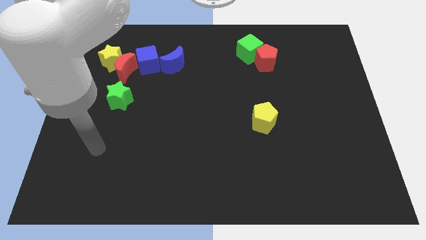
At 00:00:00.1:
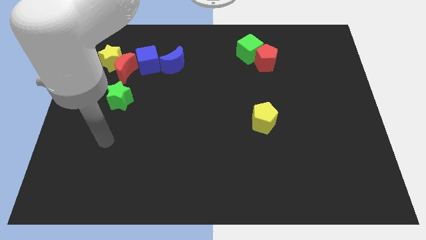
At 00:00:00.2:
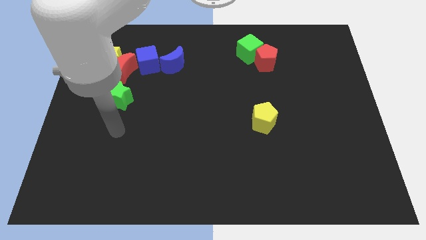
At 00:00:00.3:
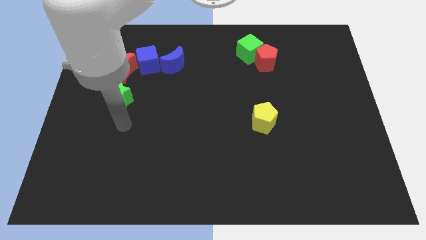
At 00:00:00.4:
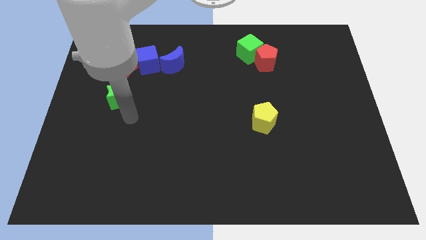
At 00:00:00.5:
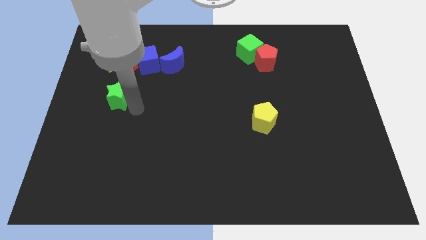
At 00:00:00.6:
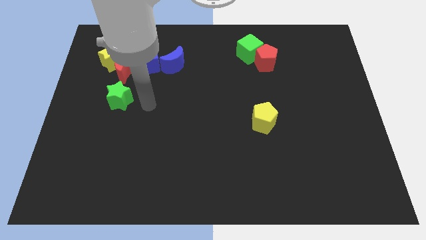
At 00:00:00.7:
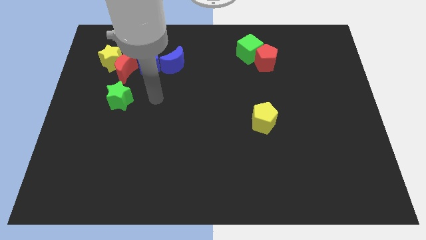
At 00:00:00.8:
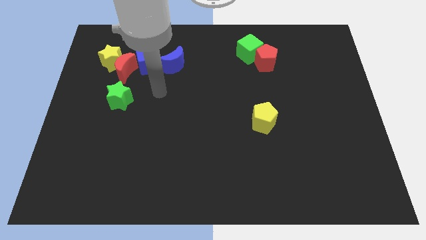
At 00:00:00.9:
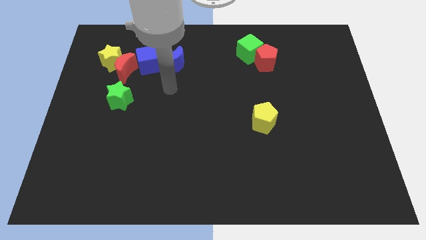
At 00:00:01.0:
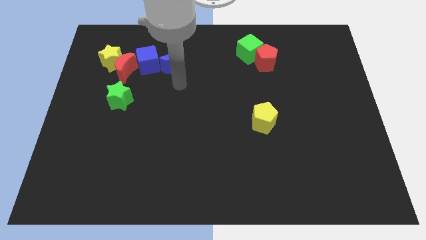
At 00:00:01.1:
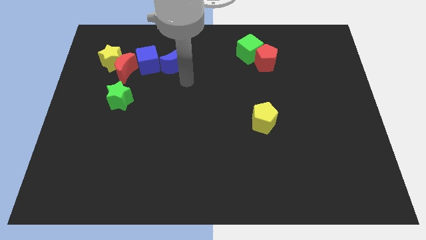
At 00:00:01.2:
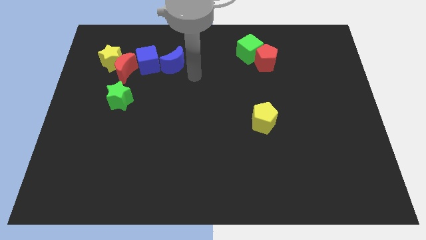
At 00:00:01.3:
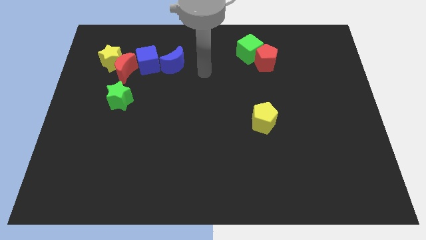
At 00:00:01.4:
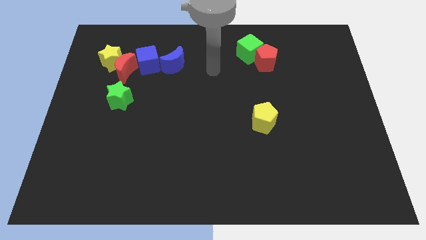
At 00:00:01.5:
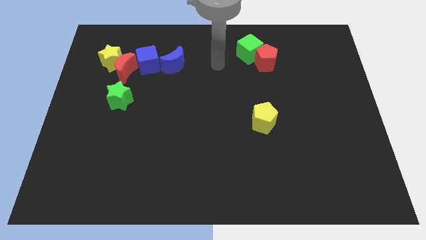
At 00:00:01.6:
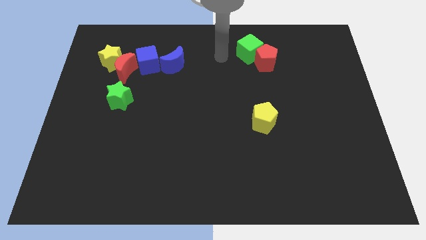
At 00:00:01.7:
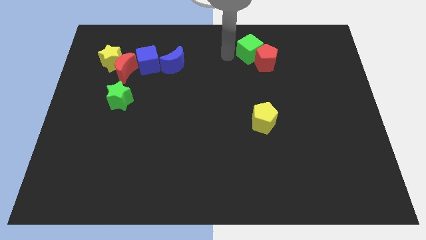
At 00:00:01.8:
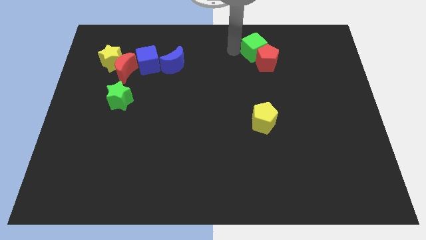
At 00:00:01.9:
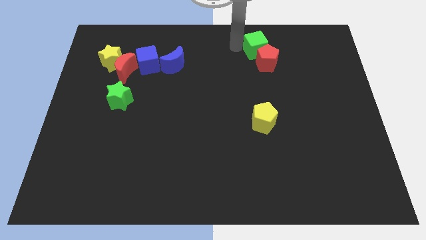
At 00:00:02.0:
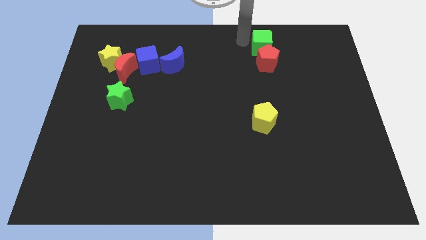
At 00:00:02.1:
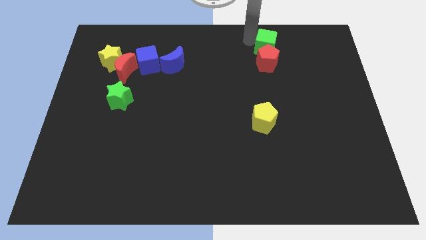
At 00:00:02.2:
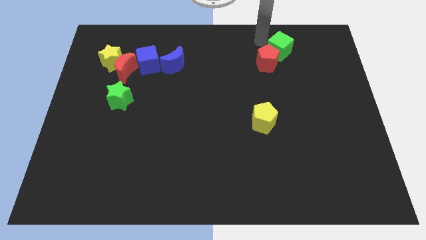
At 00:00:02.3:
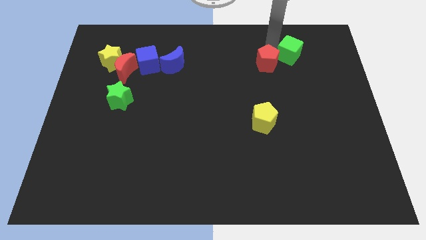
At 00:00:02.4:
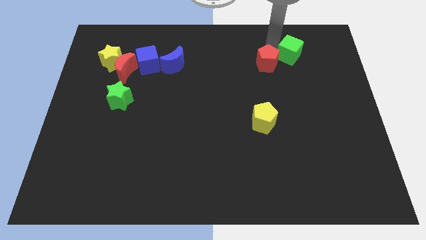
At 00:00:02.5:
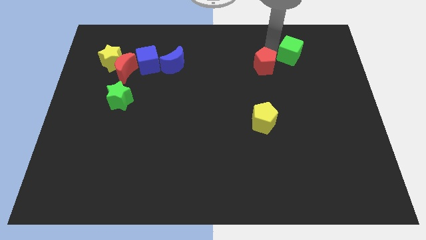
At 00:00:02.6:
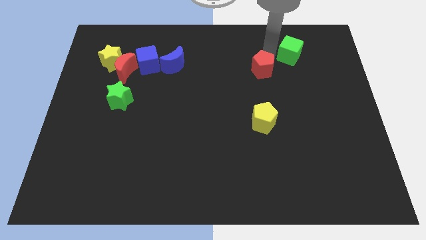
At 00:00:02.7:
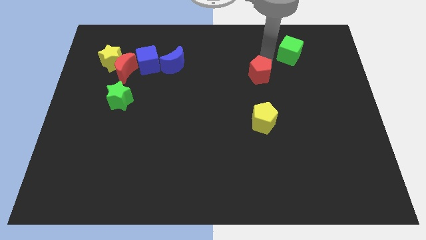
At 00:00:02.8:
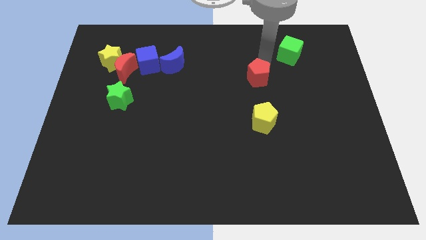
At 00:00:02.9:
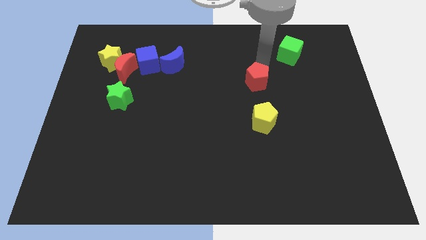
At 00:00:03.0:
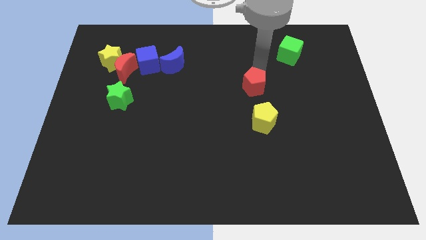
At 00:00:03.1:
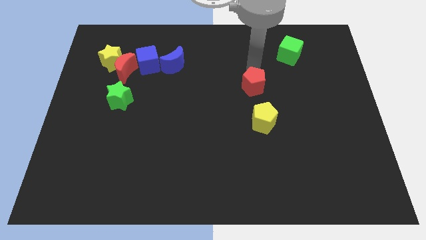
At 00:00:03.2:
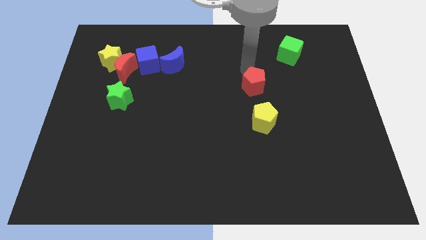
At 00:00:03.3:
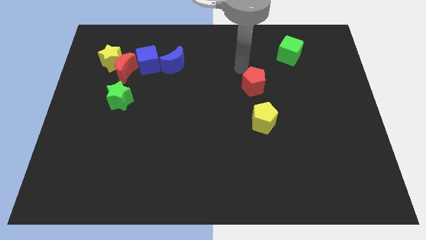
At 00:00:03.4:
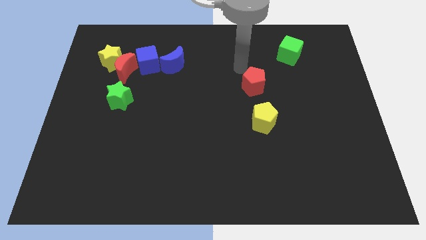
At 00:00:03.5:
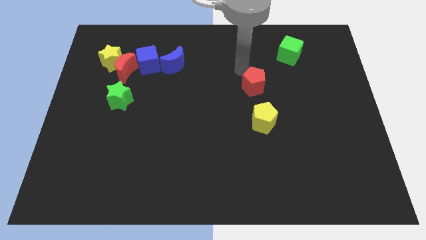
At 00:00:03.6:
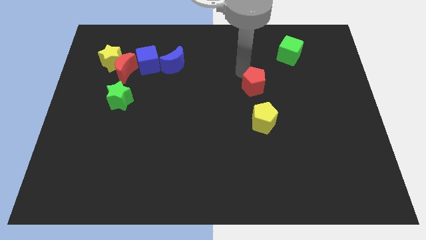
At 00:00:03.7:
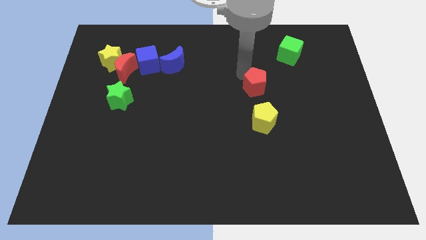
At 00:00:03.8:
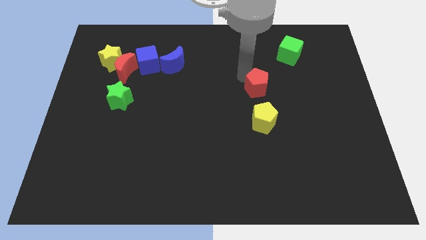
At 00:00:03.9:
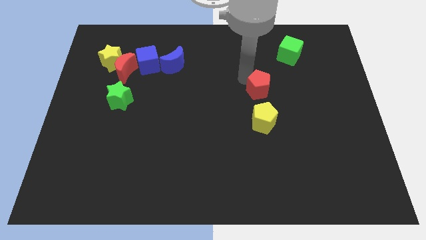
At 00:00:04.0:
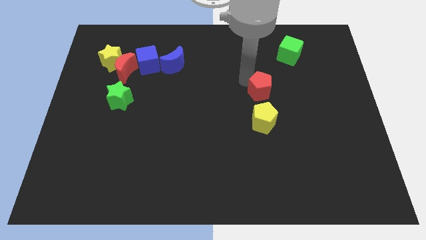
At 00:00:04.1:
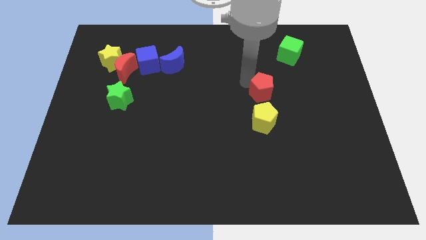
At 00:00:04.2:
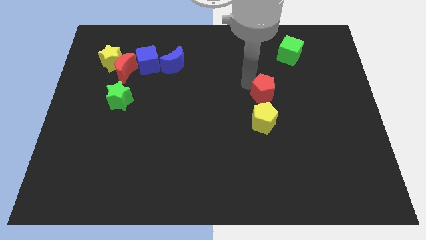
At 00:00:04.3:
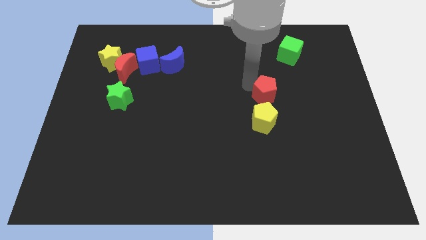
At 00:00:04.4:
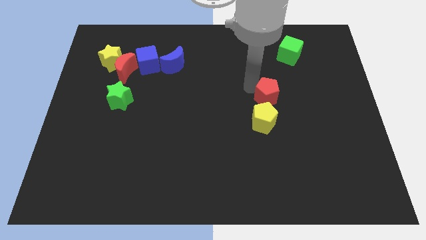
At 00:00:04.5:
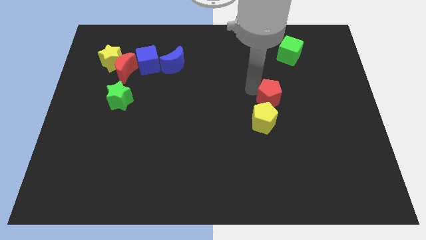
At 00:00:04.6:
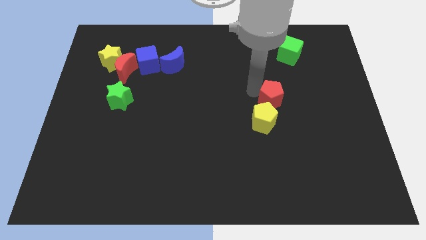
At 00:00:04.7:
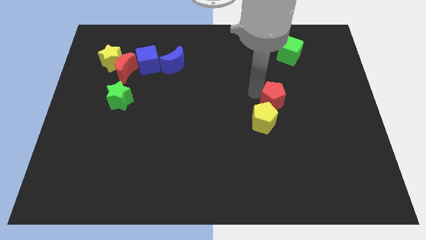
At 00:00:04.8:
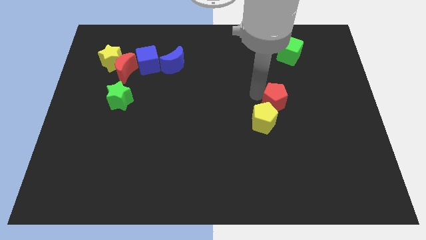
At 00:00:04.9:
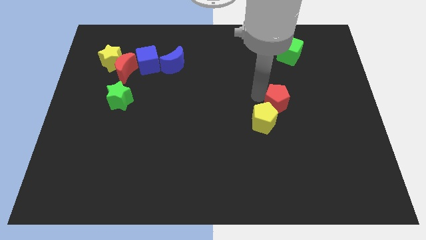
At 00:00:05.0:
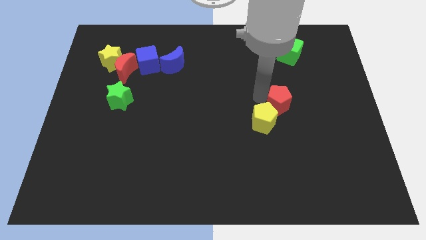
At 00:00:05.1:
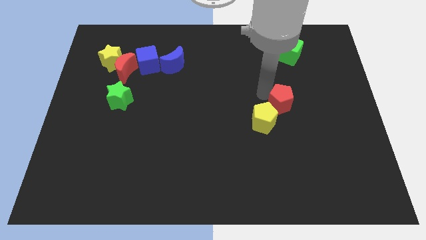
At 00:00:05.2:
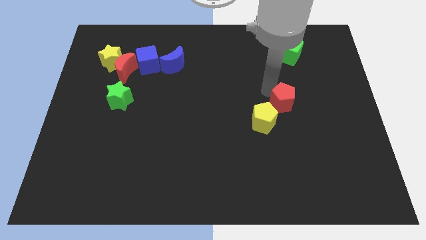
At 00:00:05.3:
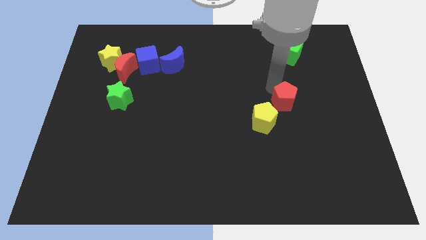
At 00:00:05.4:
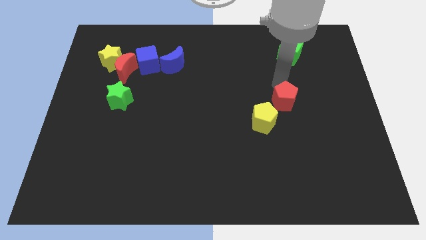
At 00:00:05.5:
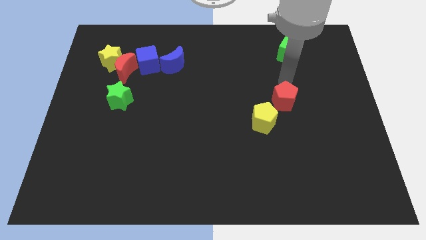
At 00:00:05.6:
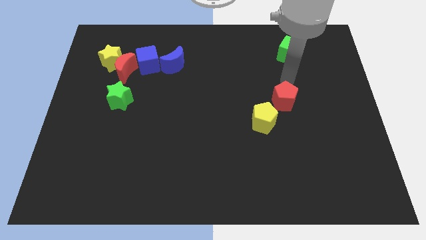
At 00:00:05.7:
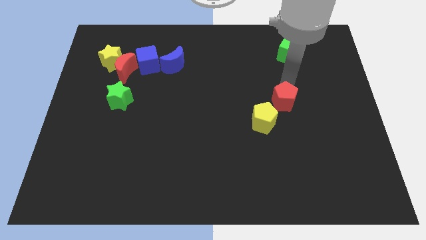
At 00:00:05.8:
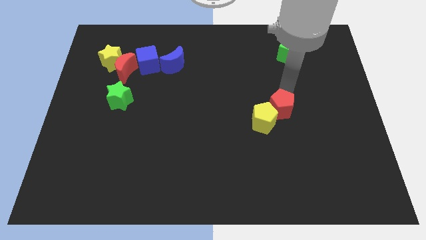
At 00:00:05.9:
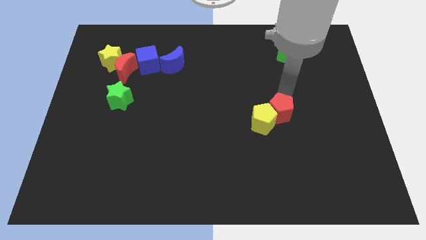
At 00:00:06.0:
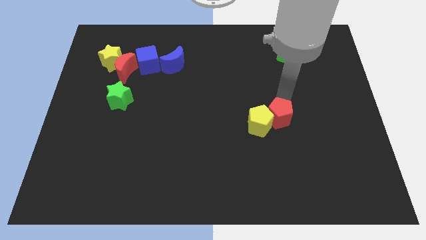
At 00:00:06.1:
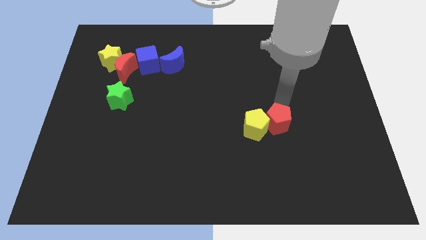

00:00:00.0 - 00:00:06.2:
put the red pentagon diagonally down and to the right of the yellow pentagon
